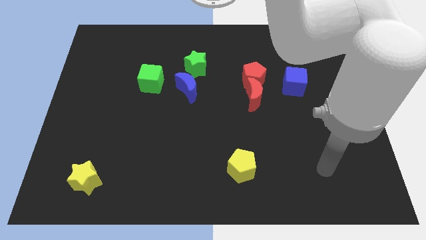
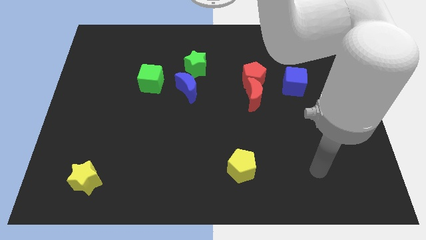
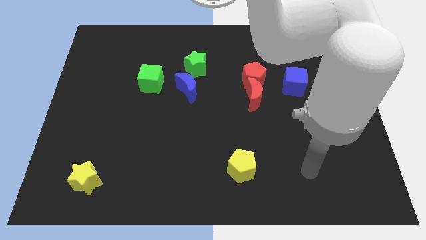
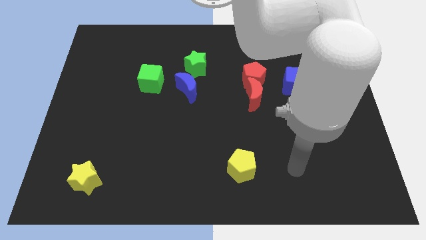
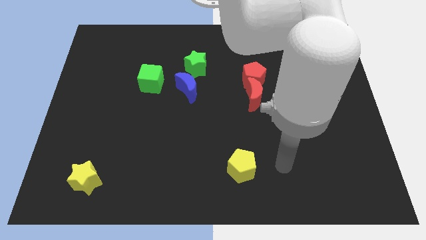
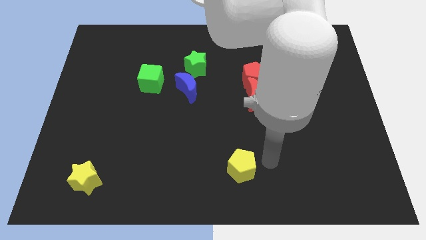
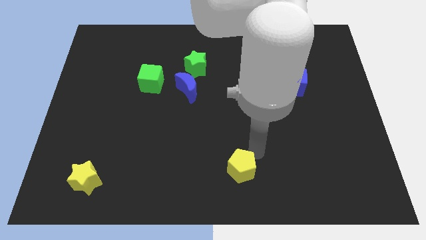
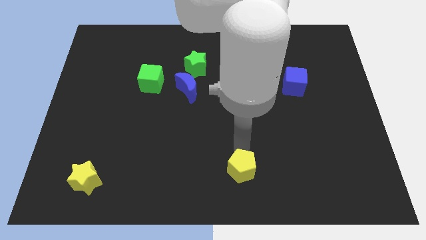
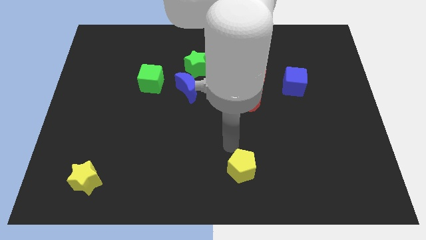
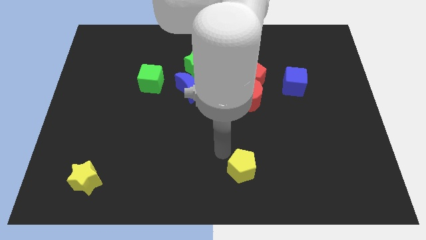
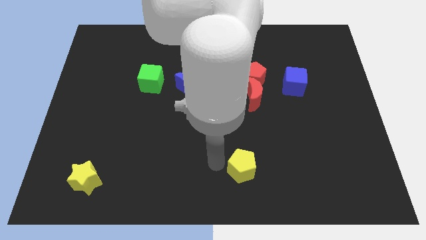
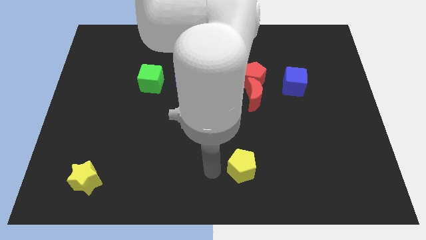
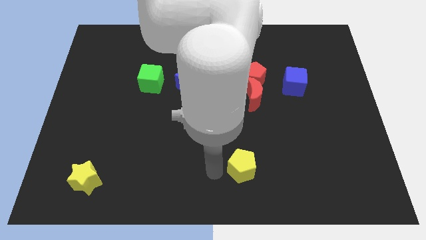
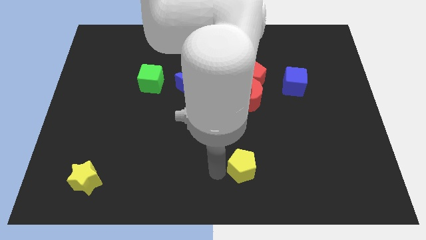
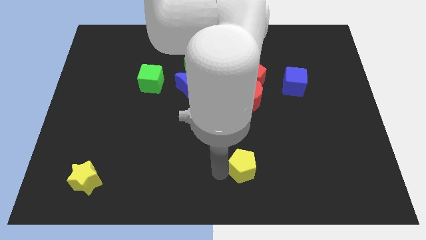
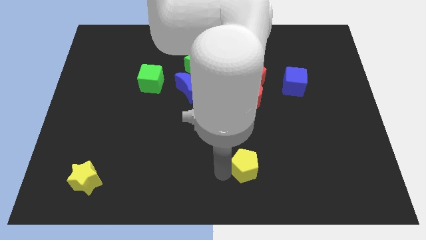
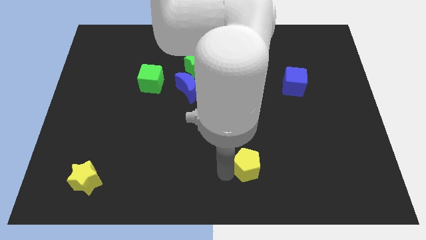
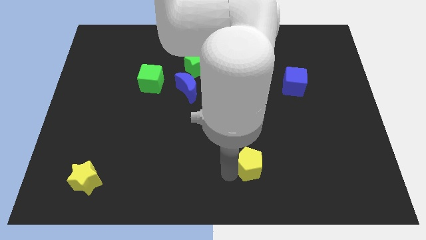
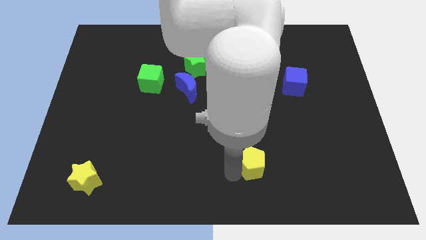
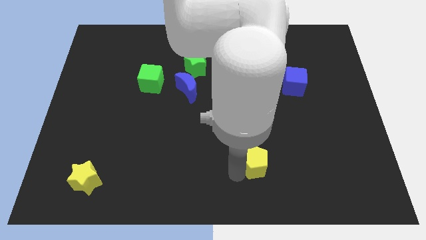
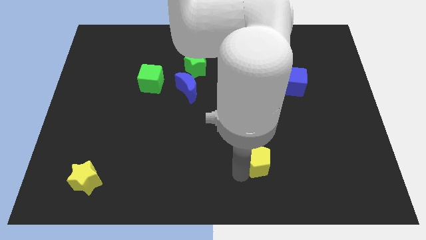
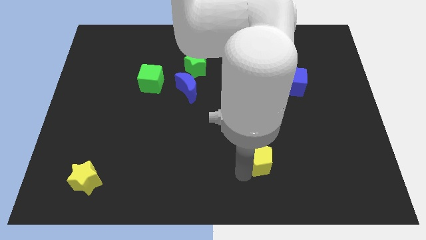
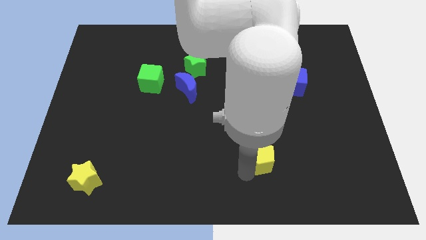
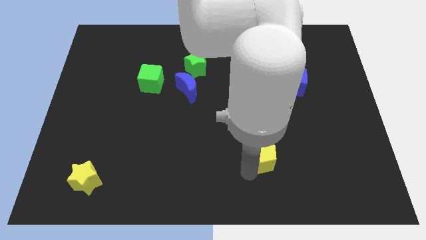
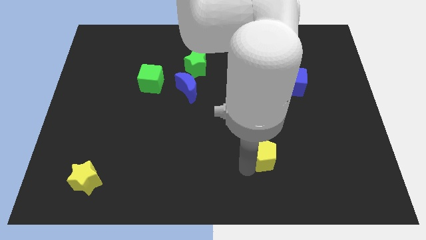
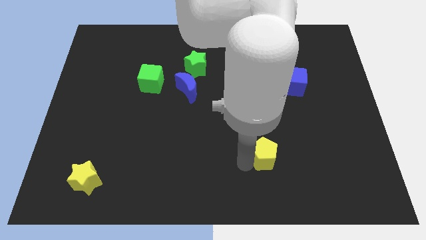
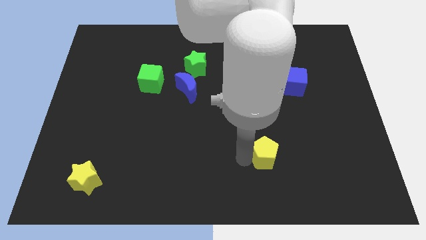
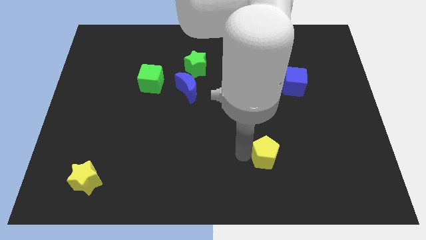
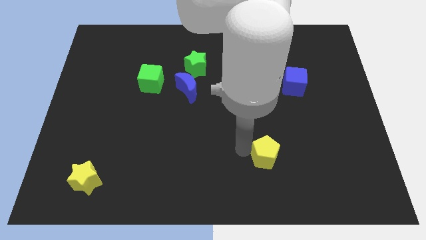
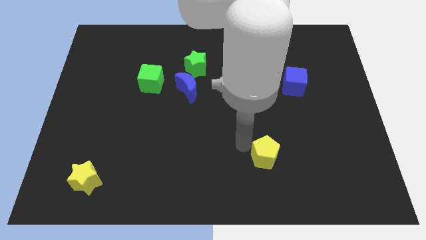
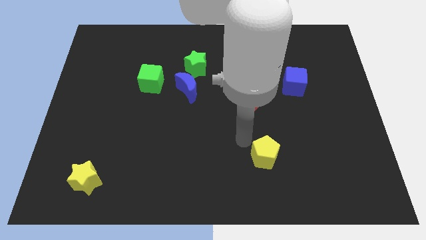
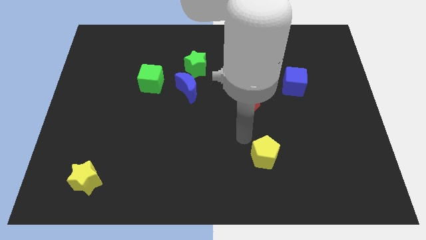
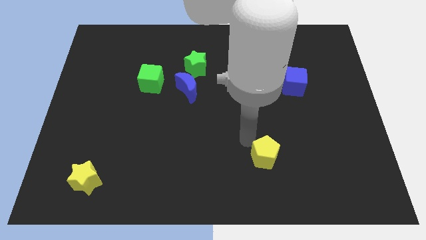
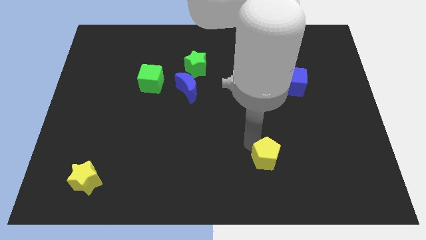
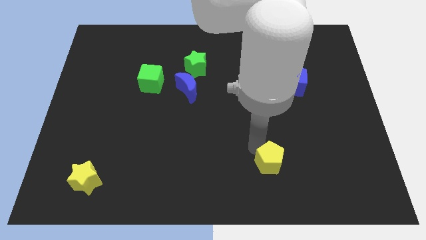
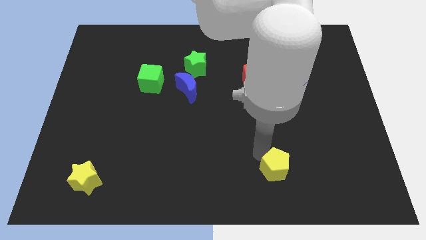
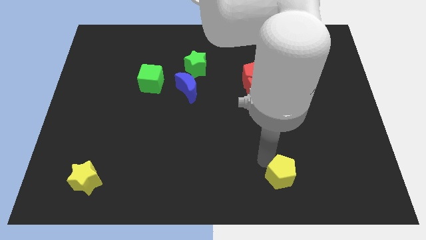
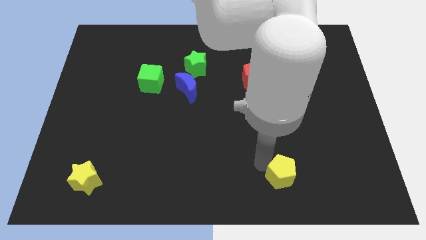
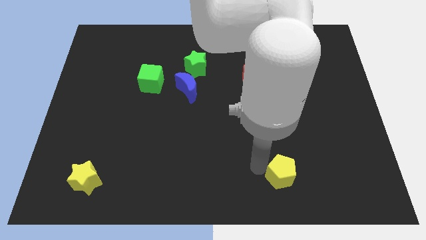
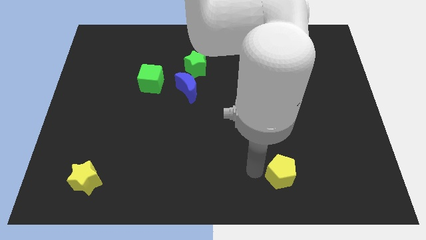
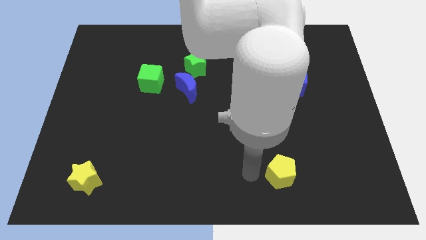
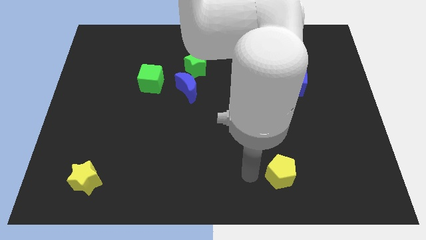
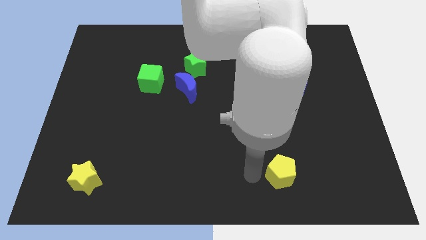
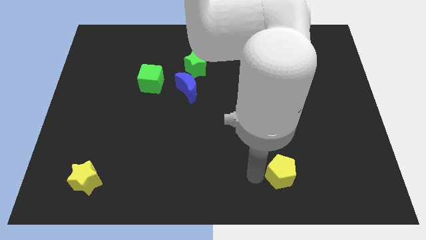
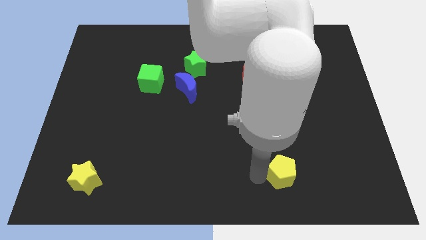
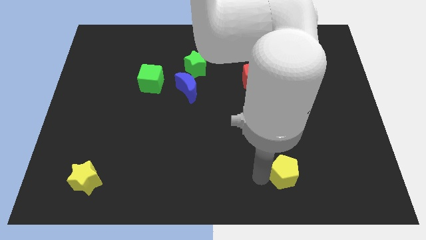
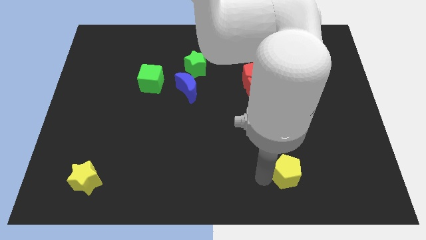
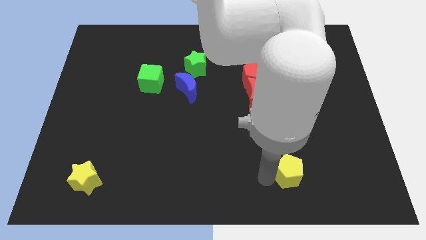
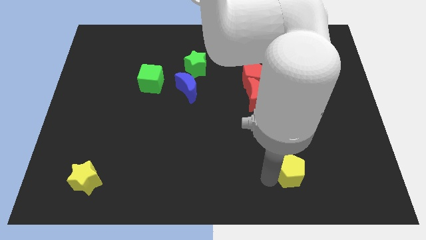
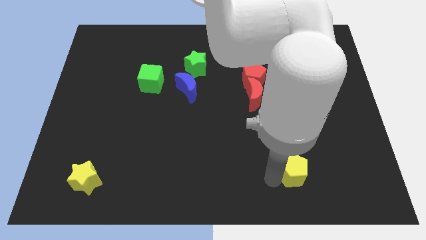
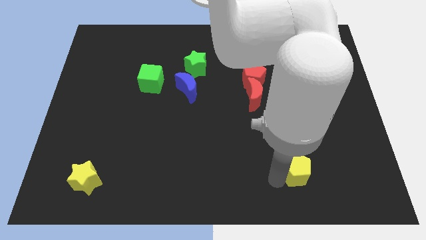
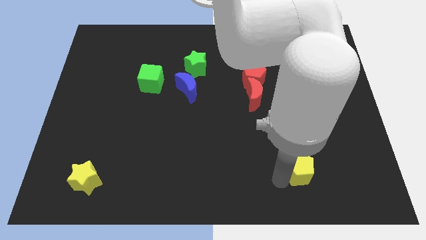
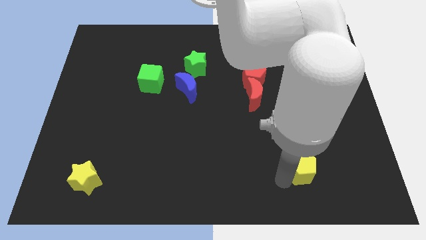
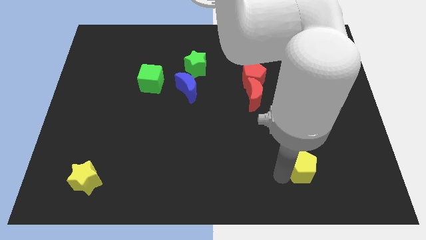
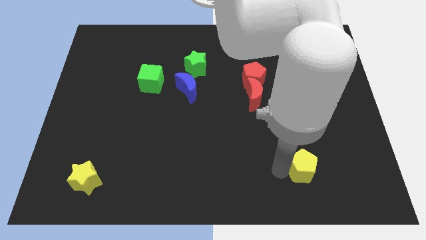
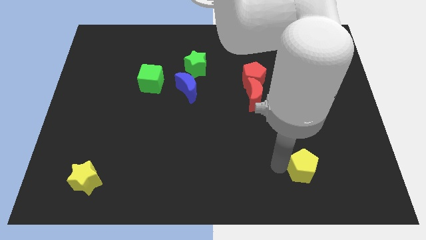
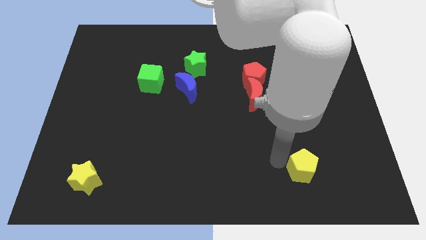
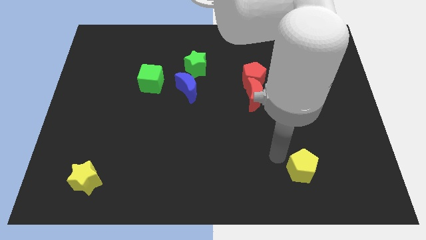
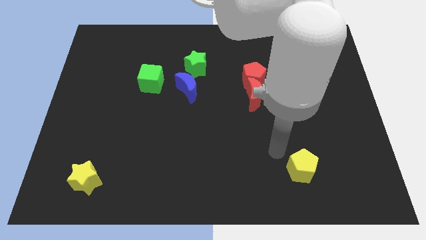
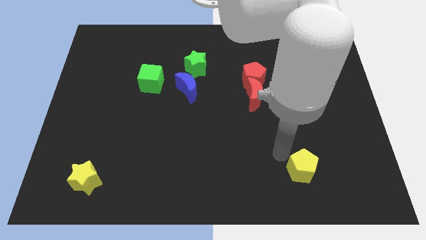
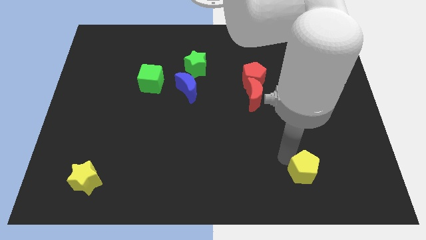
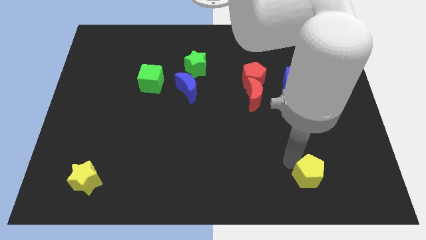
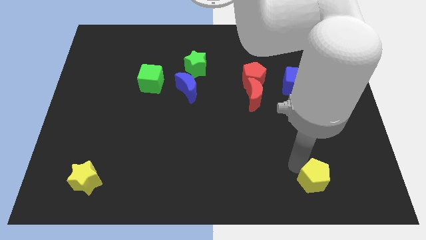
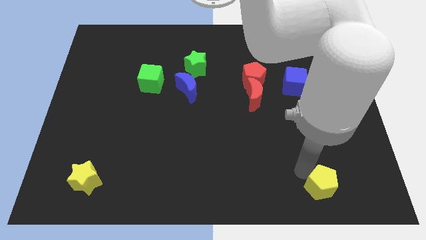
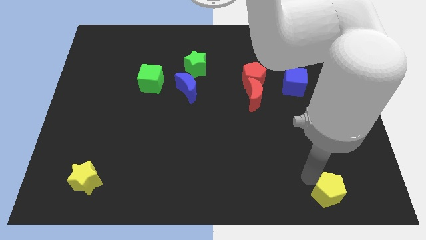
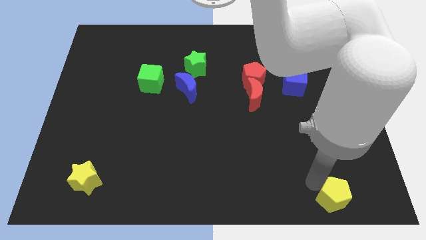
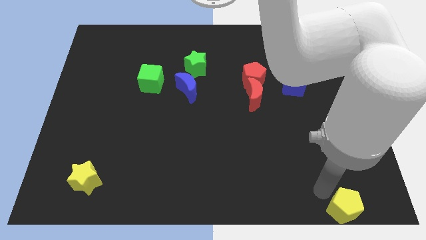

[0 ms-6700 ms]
slide the yellow pentagon to the bottom right corner
